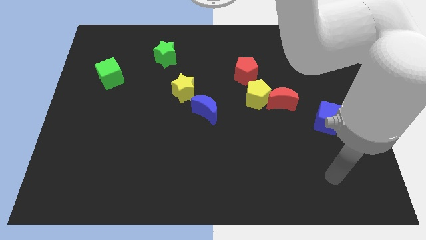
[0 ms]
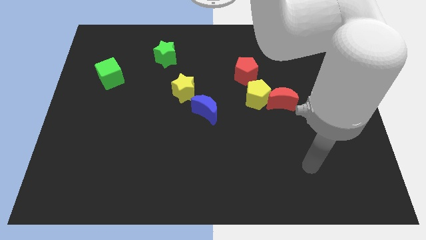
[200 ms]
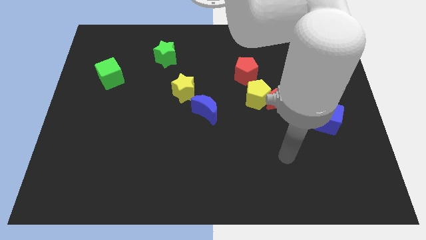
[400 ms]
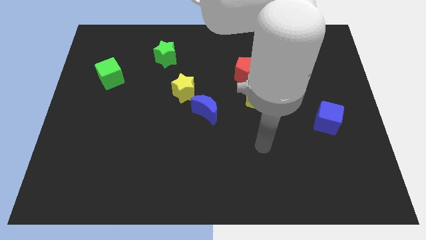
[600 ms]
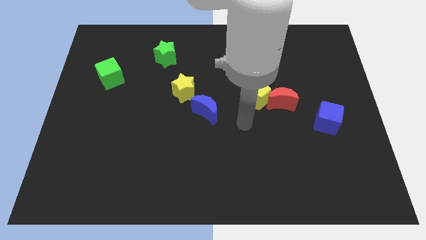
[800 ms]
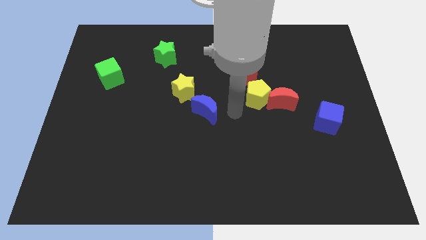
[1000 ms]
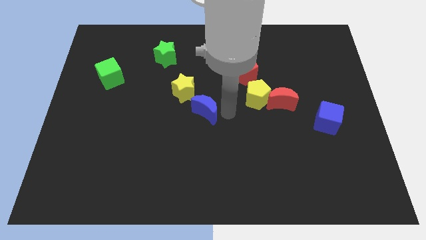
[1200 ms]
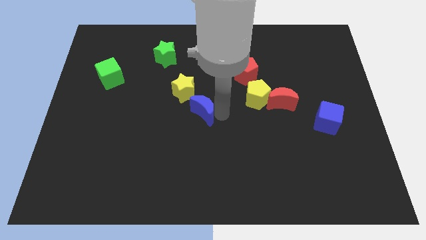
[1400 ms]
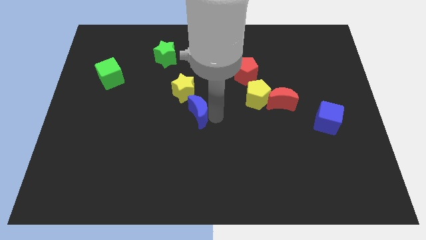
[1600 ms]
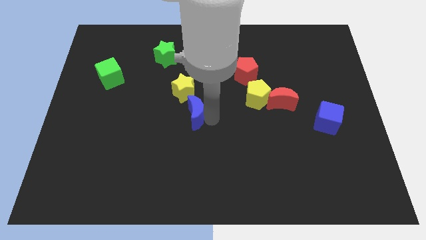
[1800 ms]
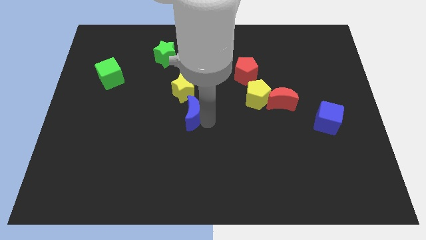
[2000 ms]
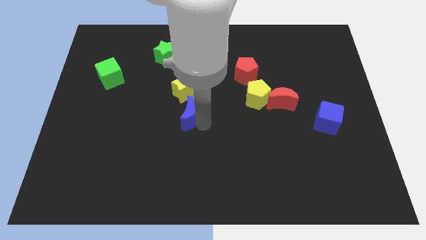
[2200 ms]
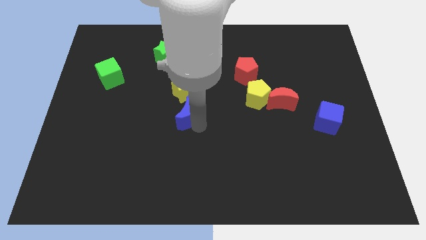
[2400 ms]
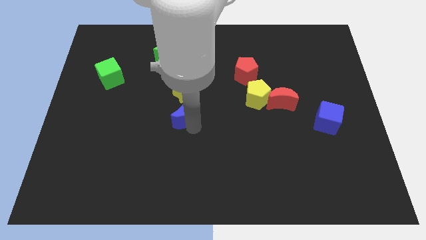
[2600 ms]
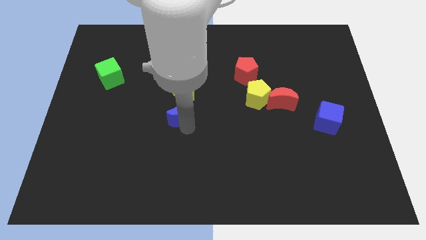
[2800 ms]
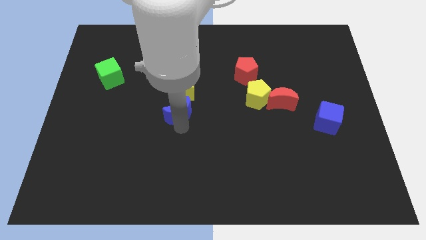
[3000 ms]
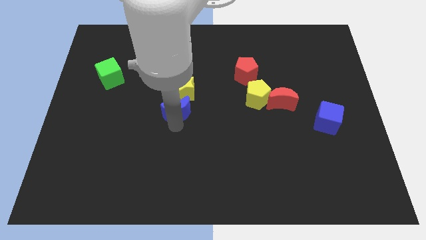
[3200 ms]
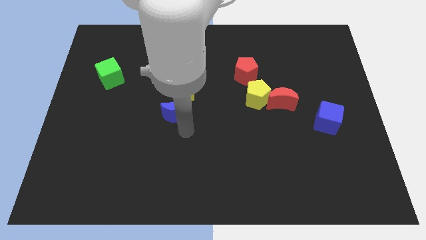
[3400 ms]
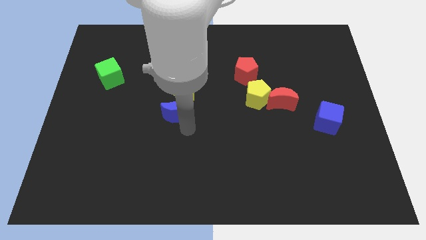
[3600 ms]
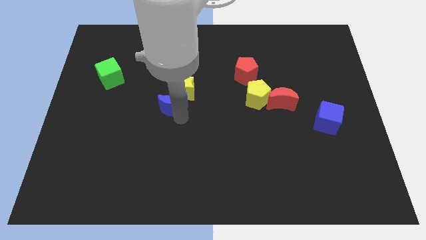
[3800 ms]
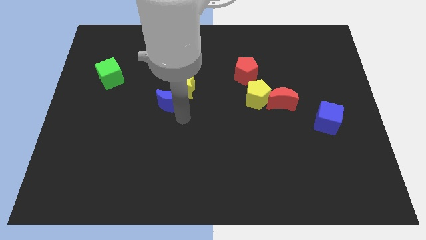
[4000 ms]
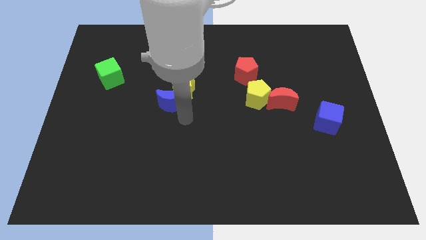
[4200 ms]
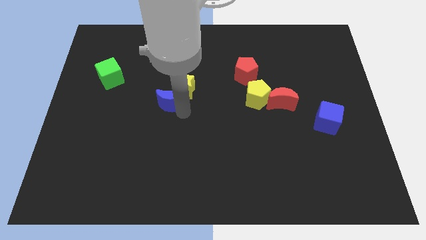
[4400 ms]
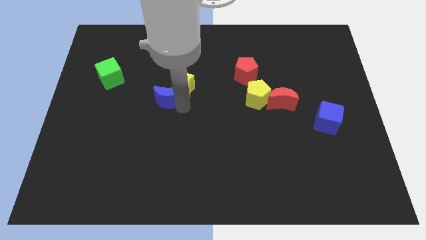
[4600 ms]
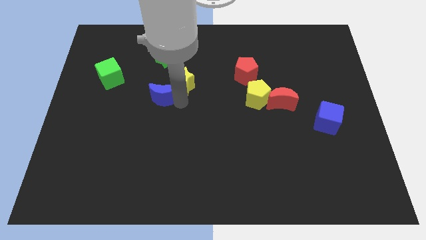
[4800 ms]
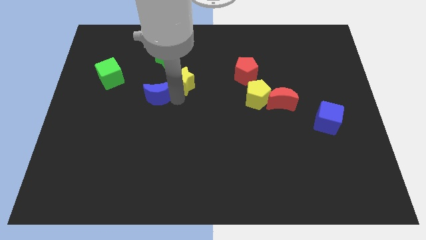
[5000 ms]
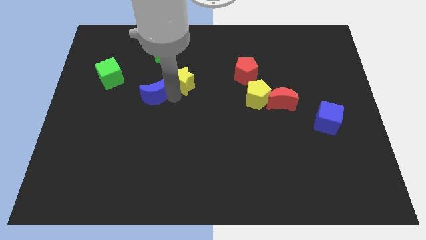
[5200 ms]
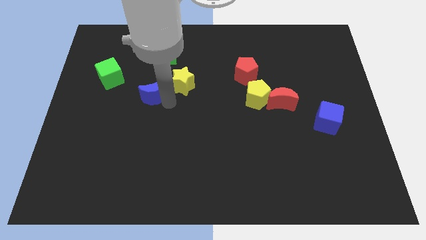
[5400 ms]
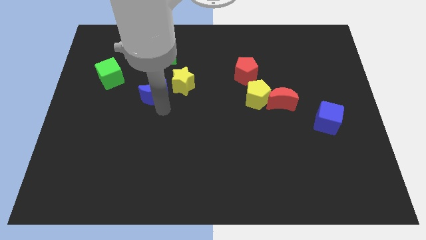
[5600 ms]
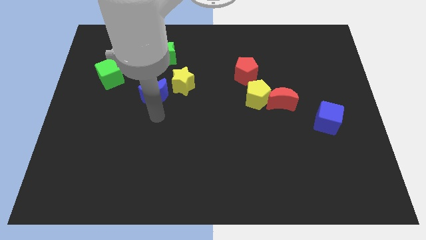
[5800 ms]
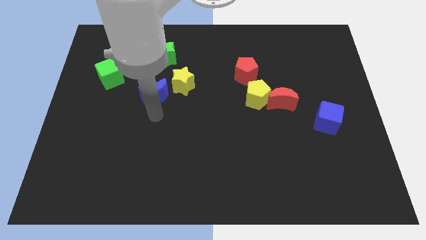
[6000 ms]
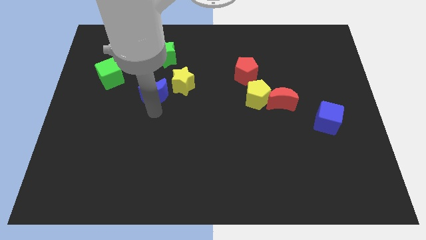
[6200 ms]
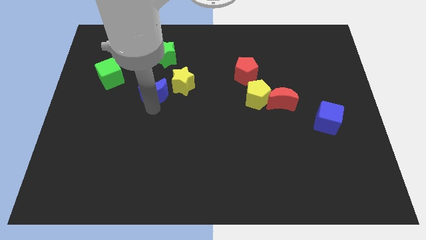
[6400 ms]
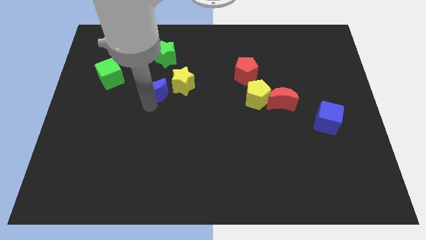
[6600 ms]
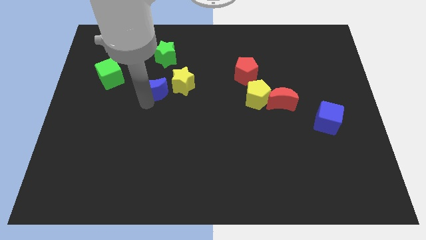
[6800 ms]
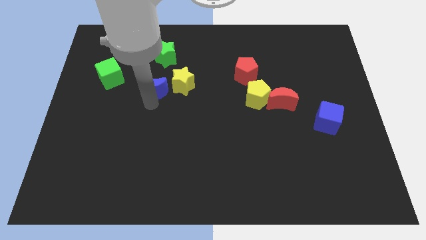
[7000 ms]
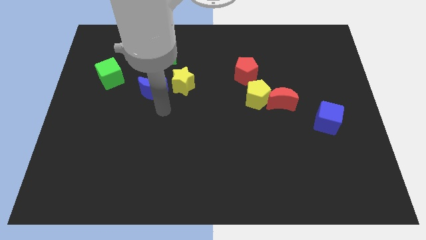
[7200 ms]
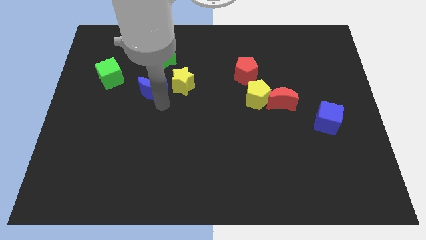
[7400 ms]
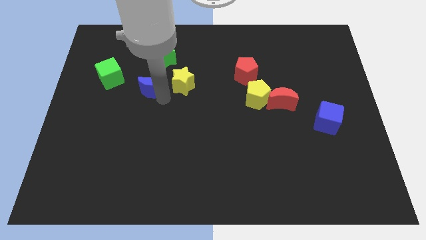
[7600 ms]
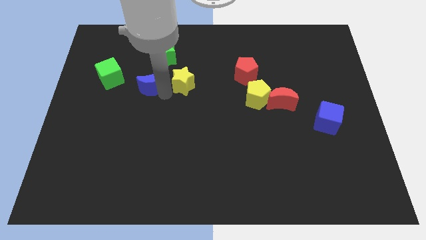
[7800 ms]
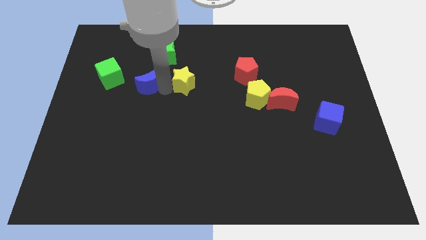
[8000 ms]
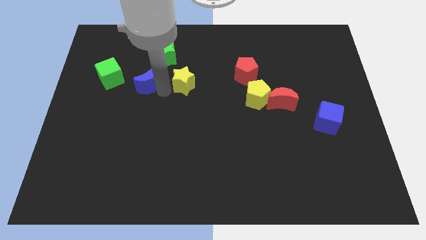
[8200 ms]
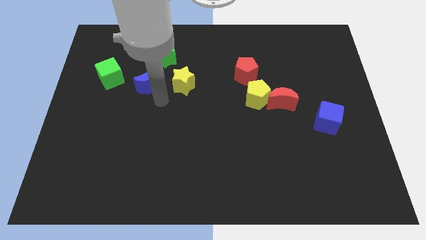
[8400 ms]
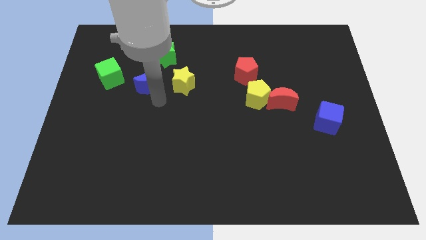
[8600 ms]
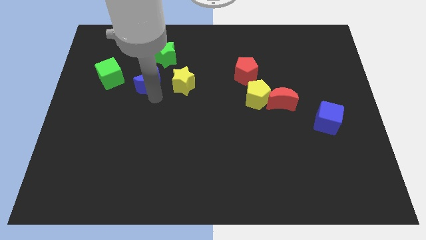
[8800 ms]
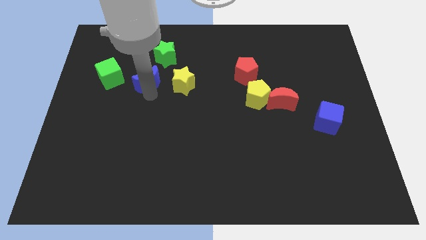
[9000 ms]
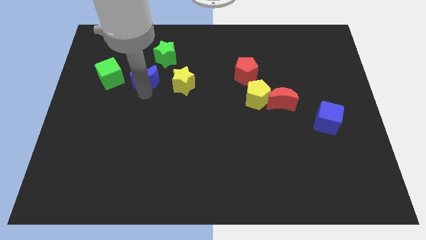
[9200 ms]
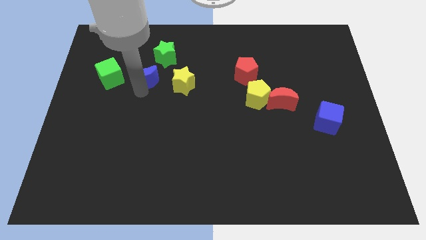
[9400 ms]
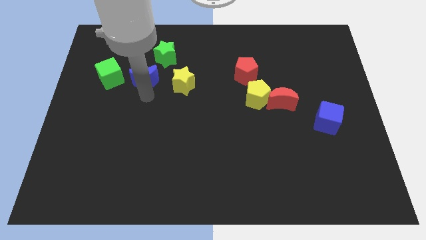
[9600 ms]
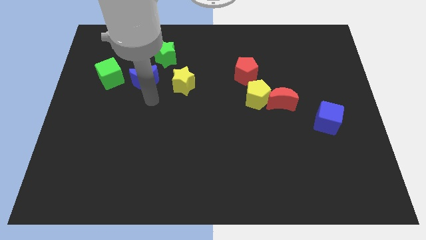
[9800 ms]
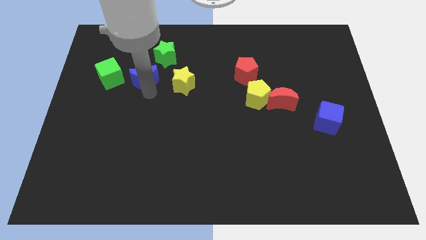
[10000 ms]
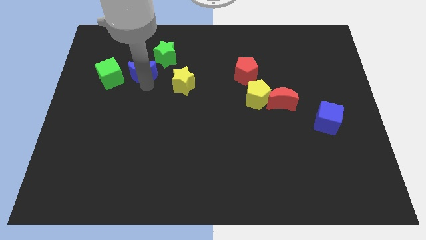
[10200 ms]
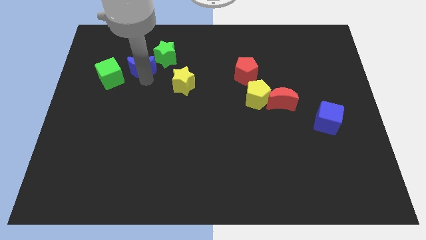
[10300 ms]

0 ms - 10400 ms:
put the blue moon diagonally up and to the right of the green cube

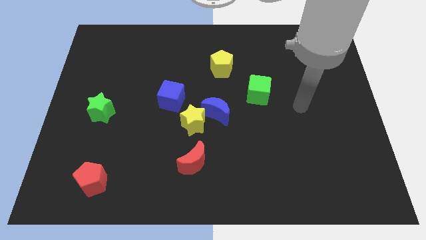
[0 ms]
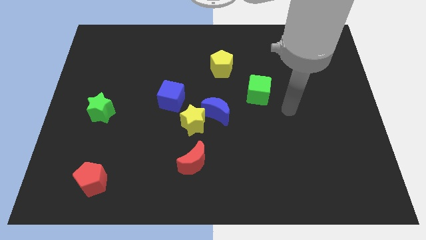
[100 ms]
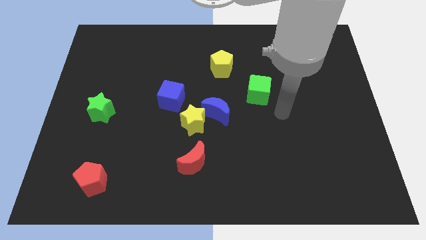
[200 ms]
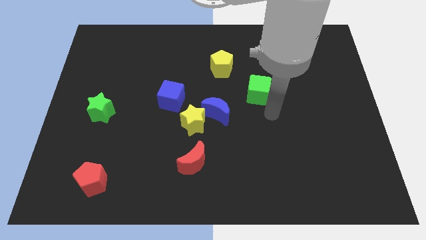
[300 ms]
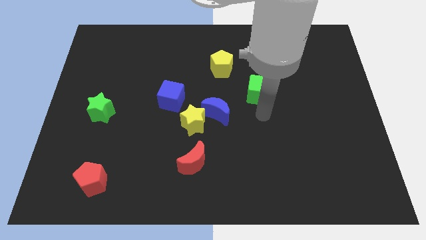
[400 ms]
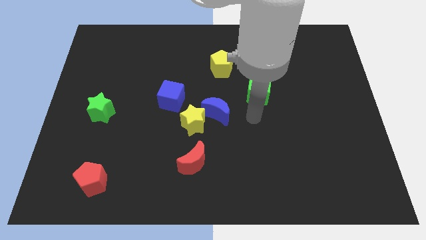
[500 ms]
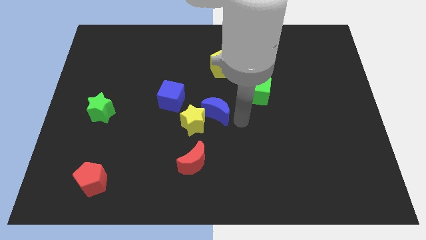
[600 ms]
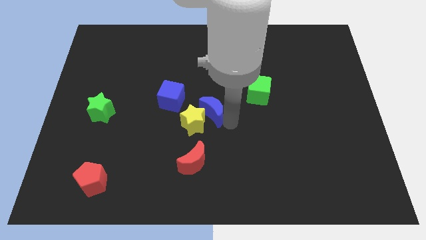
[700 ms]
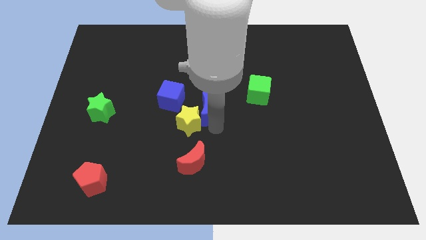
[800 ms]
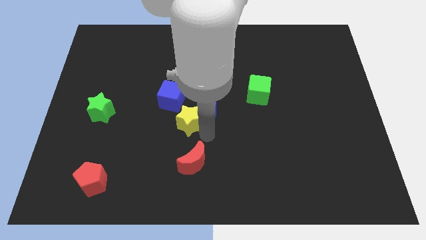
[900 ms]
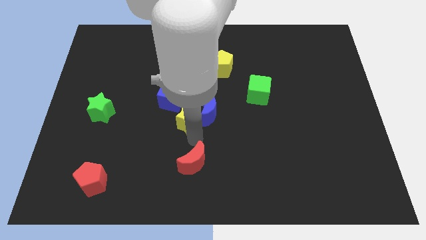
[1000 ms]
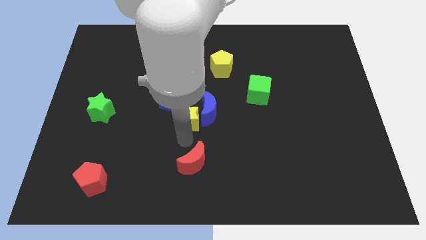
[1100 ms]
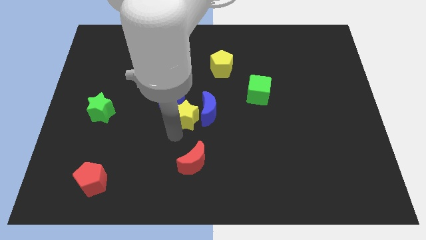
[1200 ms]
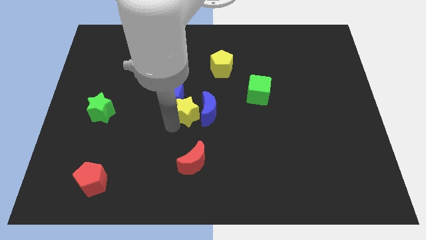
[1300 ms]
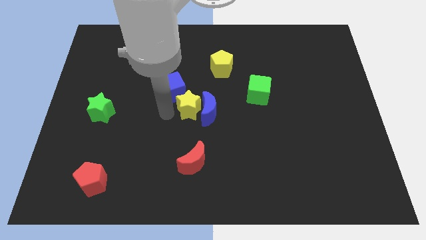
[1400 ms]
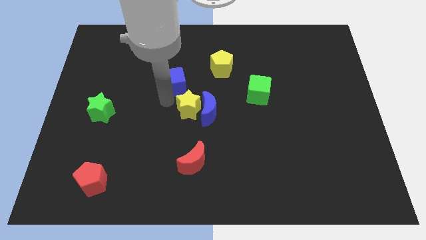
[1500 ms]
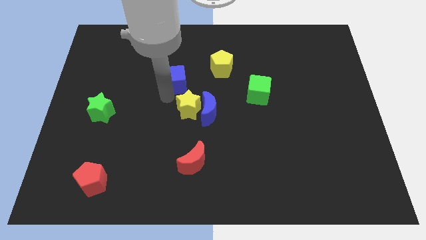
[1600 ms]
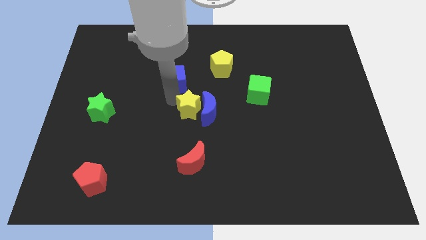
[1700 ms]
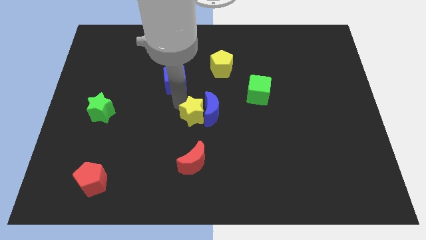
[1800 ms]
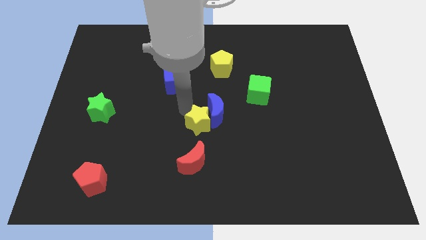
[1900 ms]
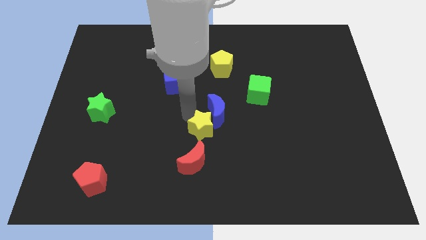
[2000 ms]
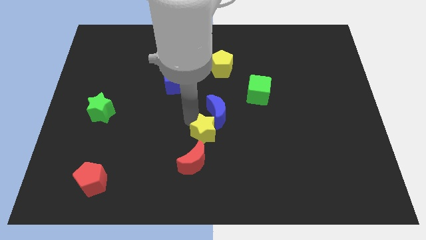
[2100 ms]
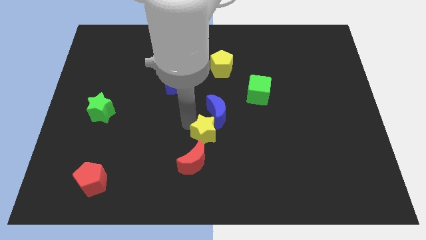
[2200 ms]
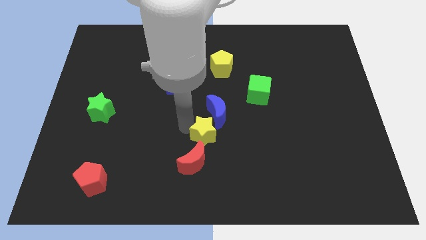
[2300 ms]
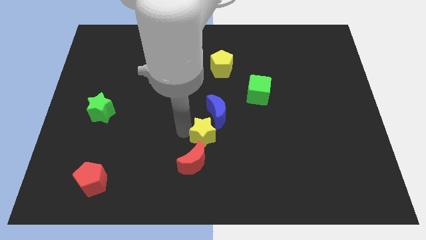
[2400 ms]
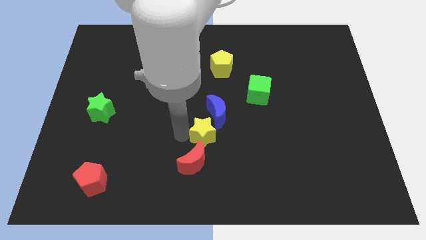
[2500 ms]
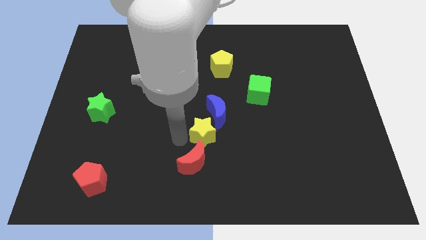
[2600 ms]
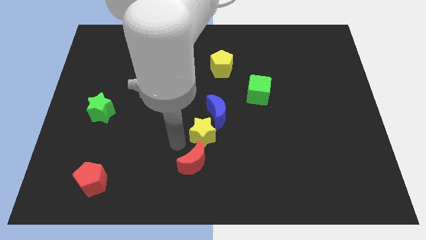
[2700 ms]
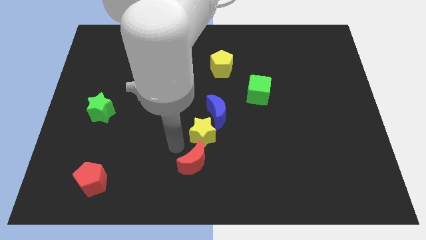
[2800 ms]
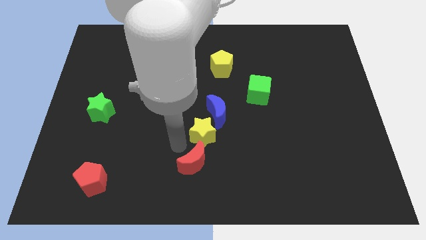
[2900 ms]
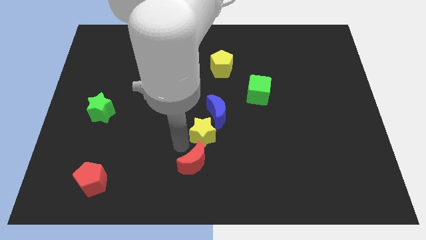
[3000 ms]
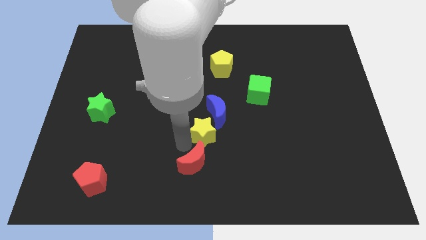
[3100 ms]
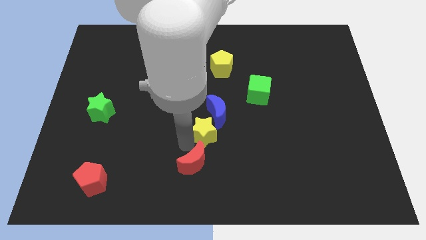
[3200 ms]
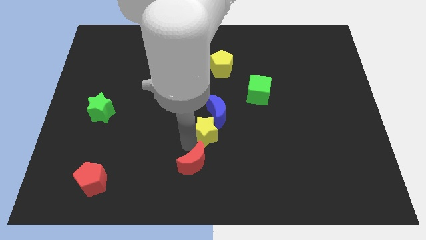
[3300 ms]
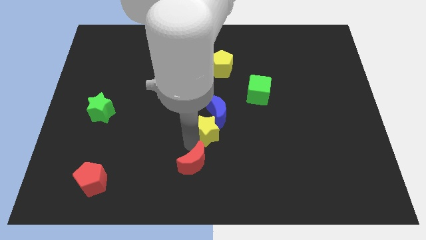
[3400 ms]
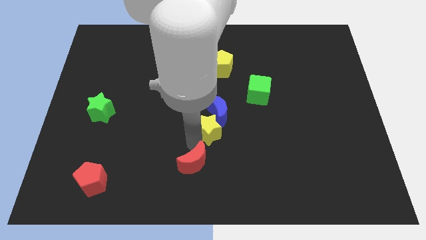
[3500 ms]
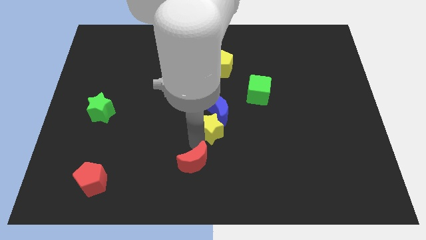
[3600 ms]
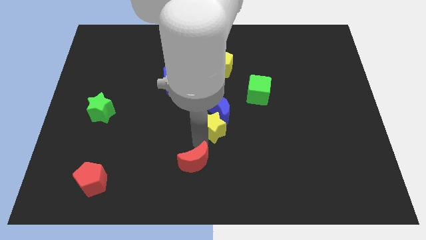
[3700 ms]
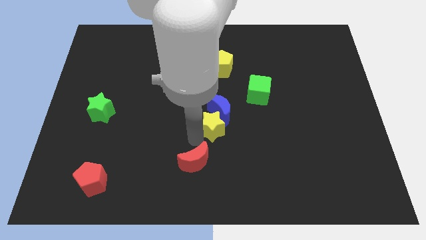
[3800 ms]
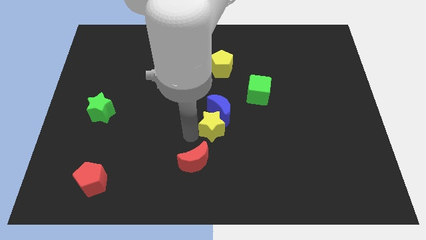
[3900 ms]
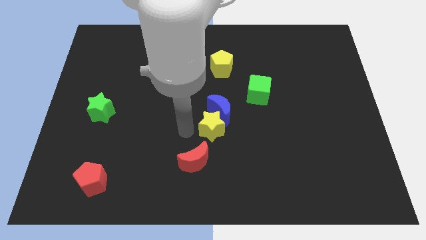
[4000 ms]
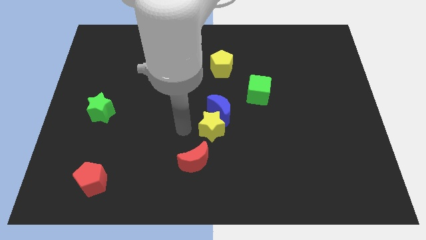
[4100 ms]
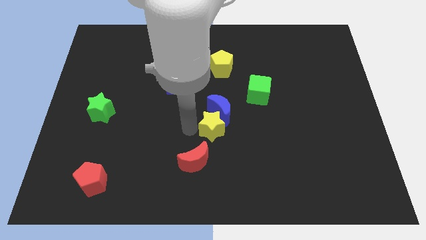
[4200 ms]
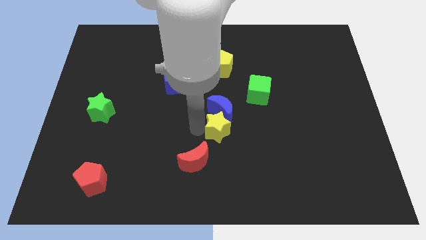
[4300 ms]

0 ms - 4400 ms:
push the yellow star diagonally down and to the right of the blue moon
